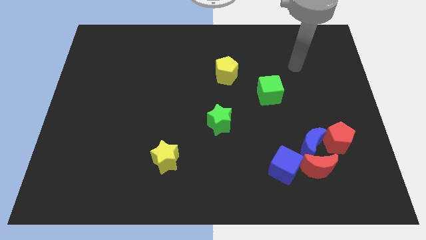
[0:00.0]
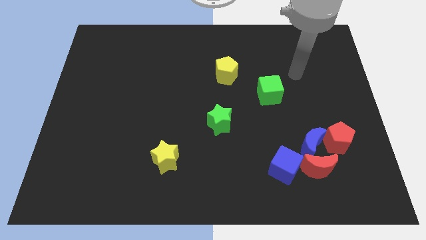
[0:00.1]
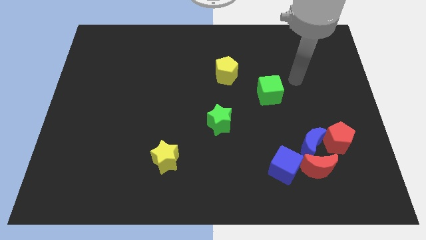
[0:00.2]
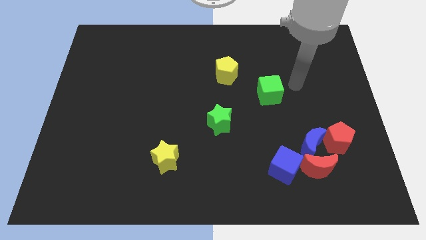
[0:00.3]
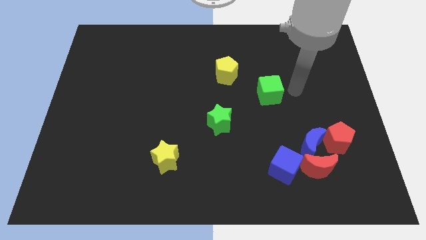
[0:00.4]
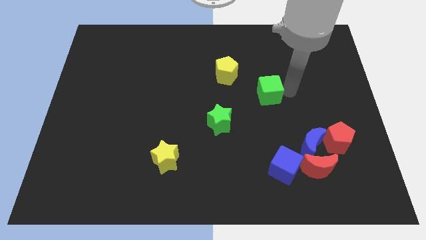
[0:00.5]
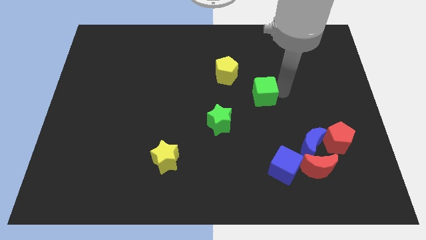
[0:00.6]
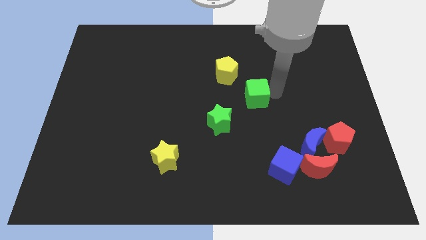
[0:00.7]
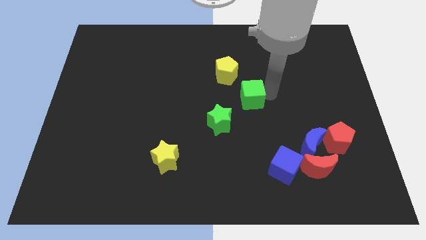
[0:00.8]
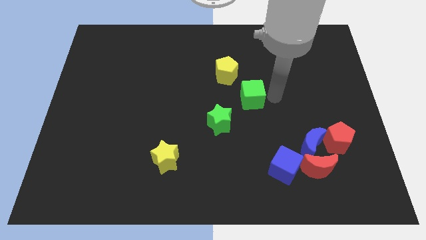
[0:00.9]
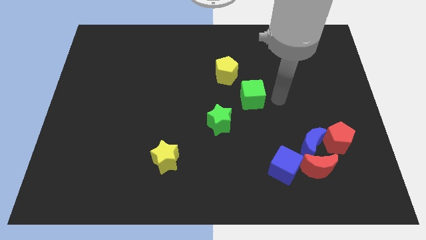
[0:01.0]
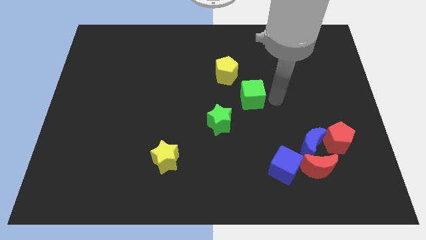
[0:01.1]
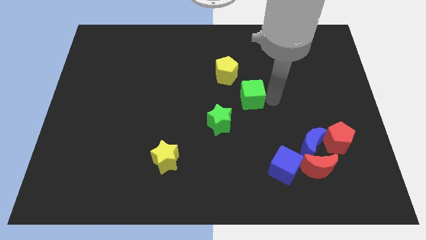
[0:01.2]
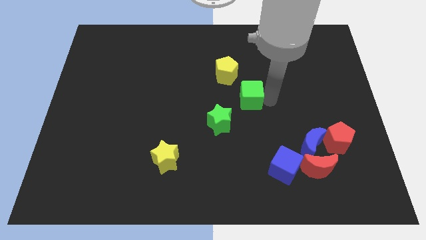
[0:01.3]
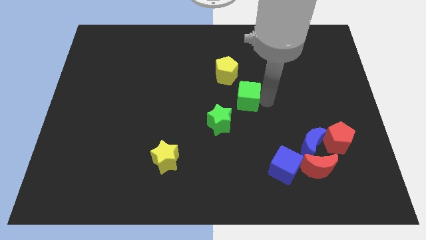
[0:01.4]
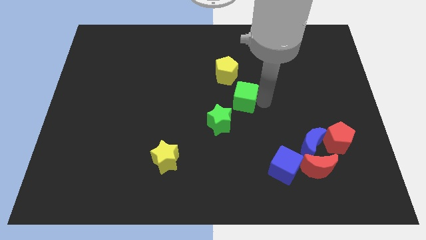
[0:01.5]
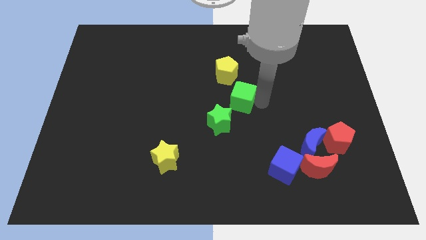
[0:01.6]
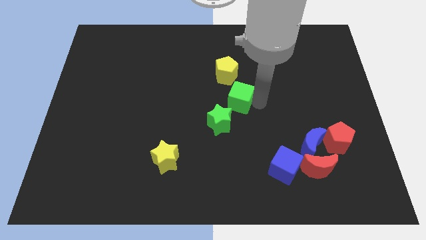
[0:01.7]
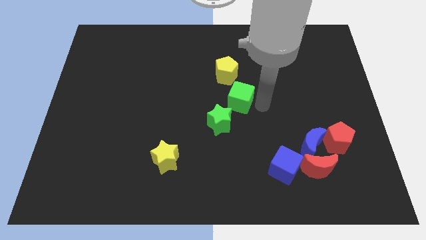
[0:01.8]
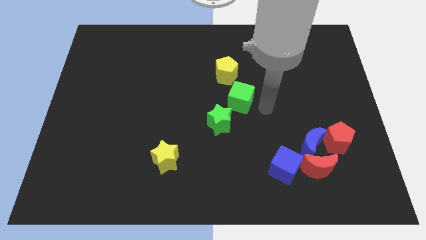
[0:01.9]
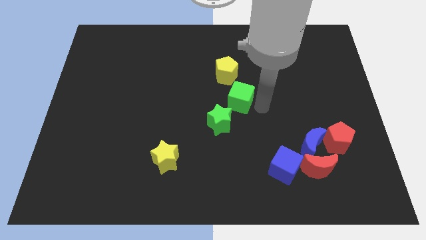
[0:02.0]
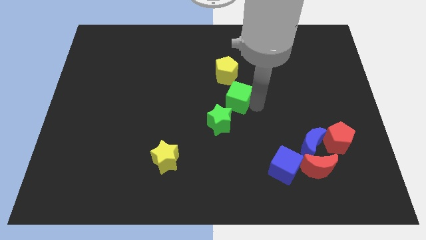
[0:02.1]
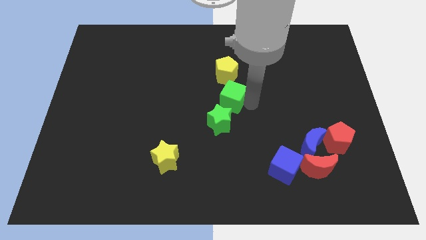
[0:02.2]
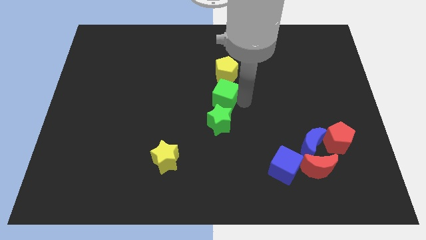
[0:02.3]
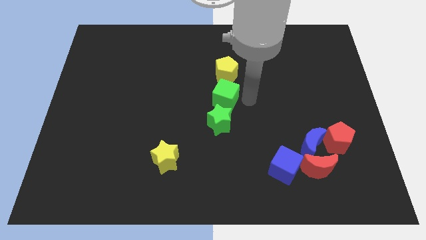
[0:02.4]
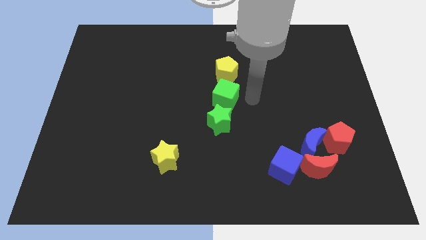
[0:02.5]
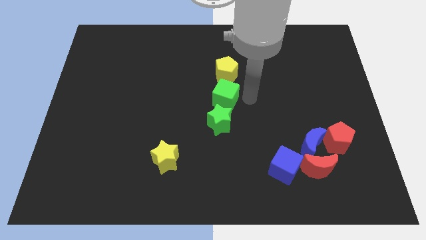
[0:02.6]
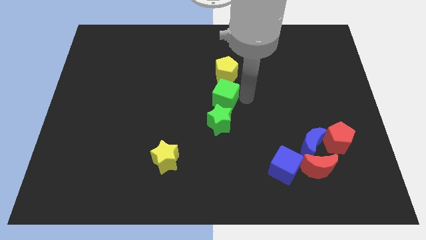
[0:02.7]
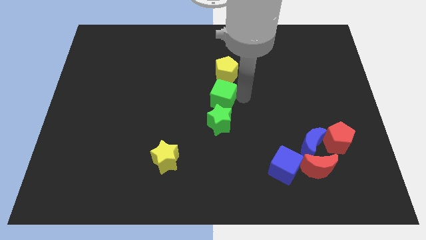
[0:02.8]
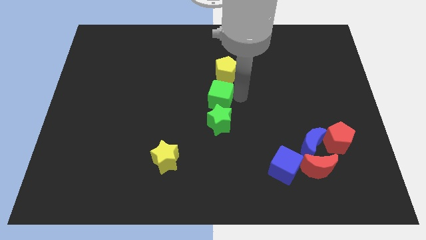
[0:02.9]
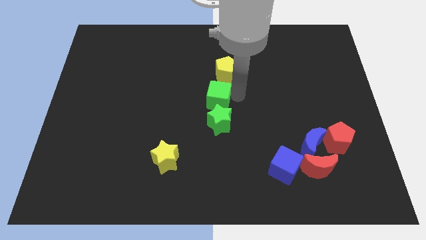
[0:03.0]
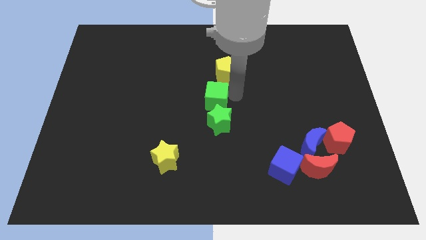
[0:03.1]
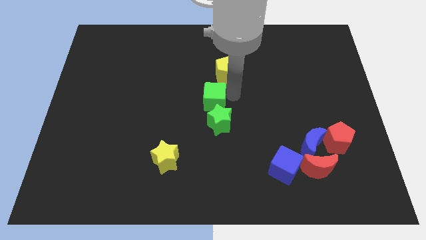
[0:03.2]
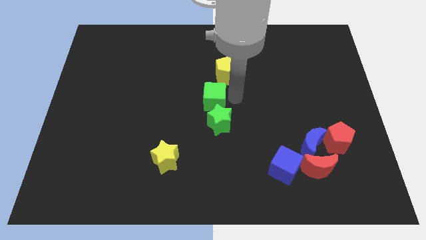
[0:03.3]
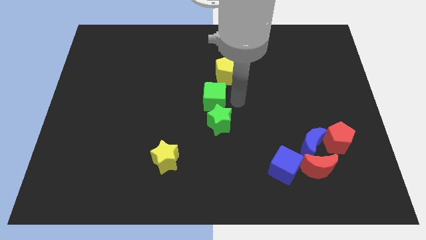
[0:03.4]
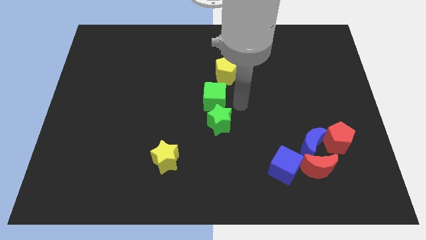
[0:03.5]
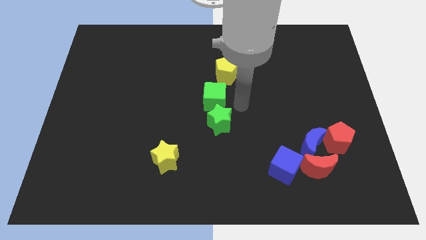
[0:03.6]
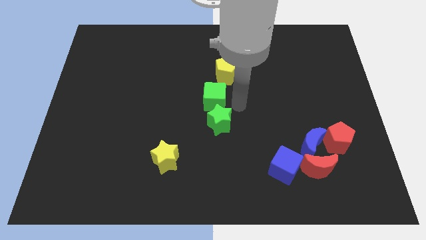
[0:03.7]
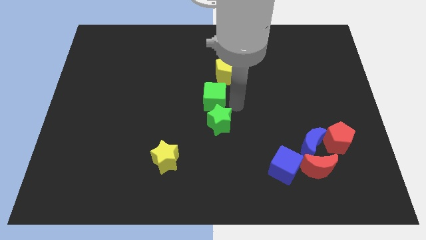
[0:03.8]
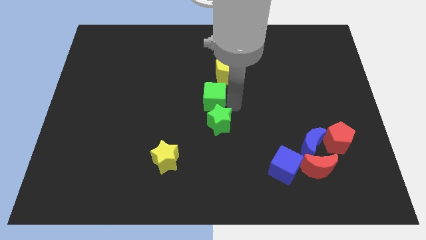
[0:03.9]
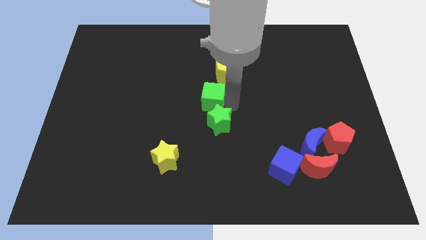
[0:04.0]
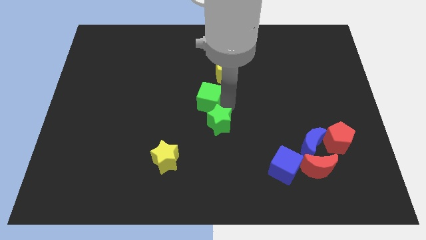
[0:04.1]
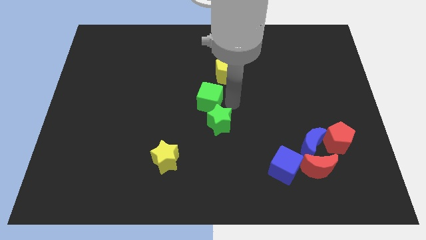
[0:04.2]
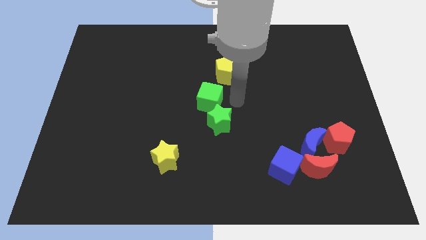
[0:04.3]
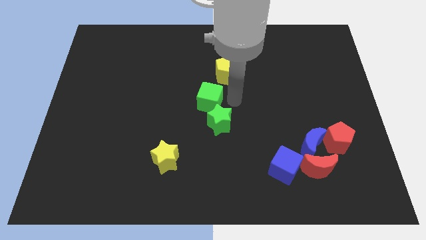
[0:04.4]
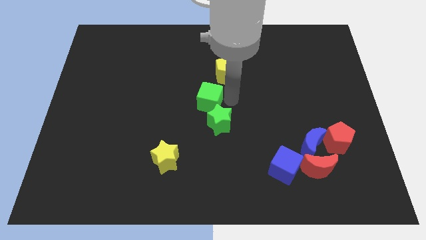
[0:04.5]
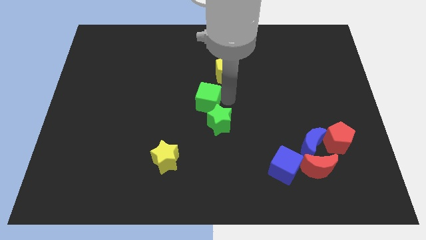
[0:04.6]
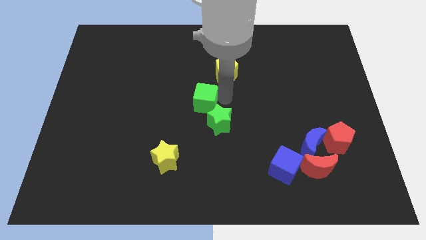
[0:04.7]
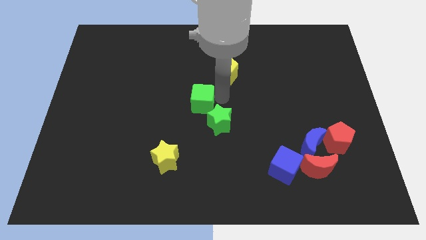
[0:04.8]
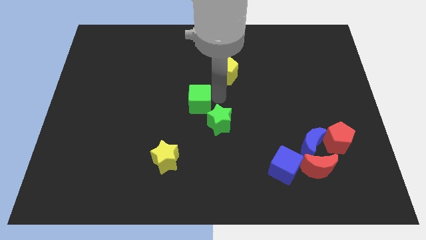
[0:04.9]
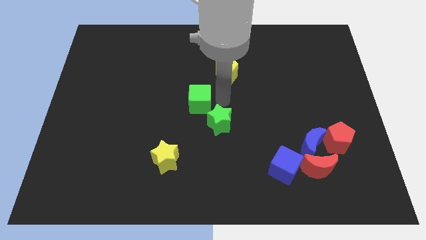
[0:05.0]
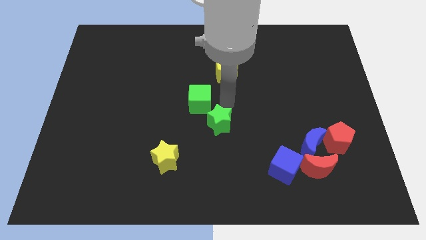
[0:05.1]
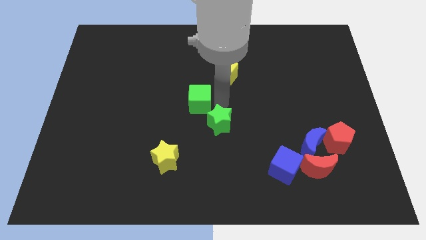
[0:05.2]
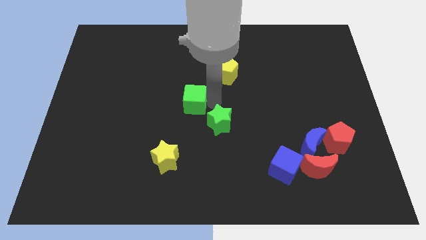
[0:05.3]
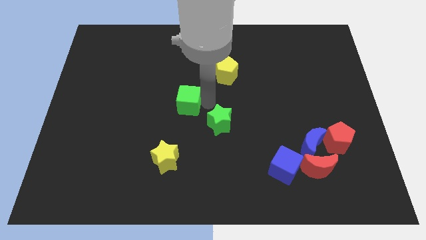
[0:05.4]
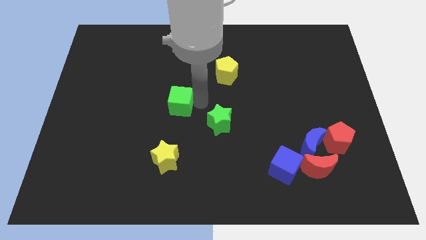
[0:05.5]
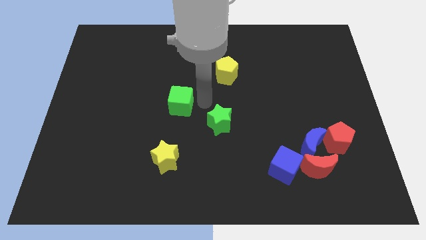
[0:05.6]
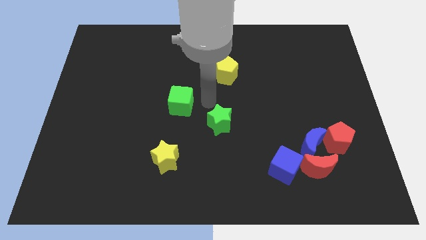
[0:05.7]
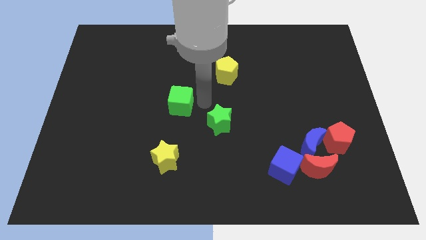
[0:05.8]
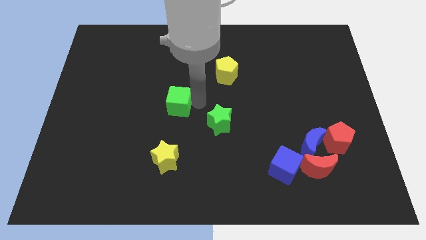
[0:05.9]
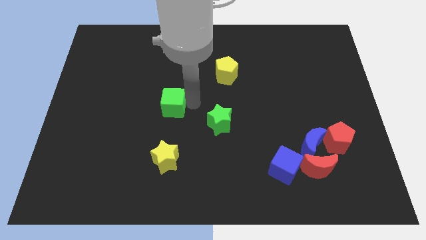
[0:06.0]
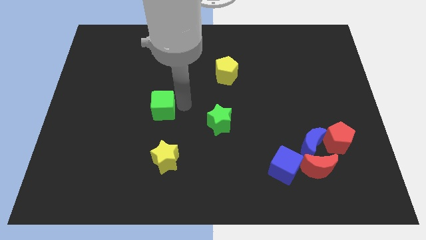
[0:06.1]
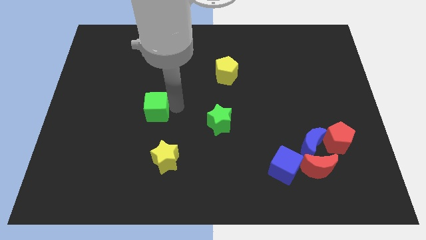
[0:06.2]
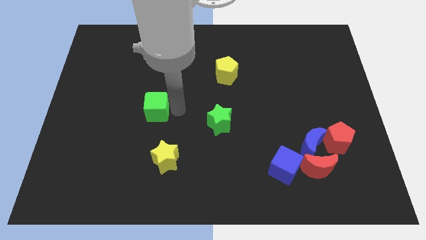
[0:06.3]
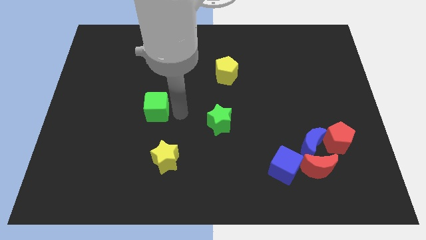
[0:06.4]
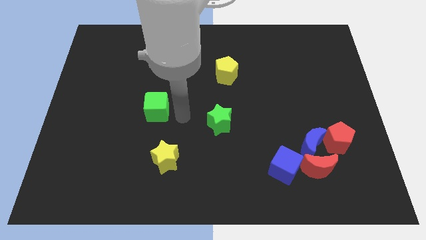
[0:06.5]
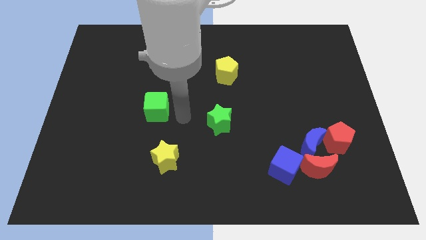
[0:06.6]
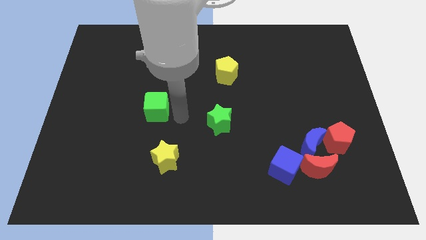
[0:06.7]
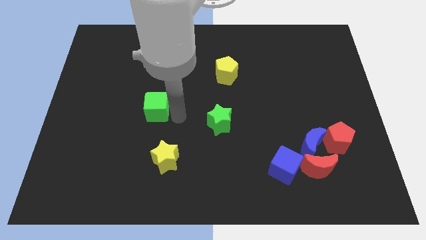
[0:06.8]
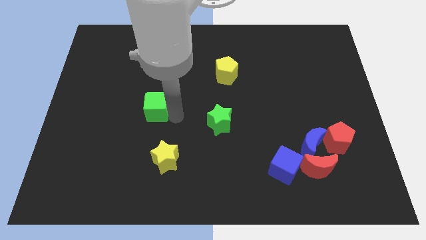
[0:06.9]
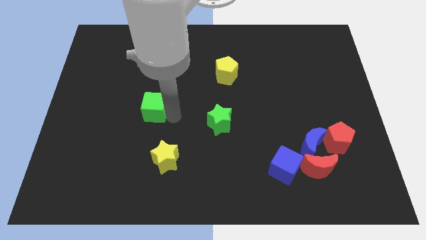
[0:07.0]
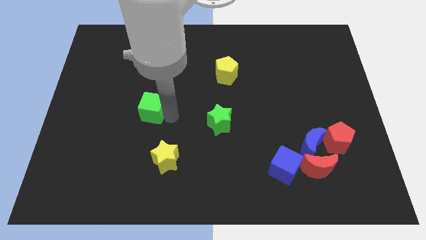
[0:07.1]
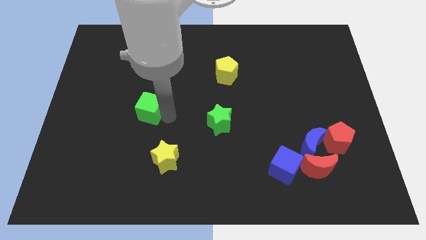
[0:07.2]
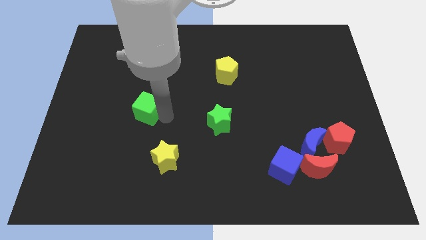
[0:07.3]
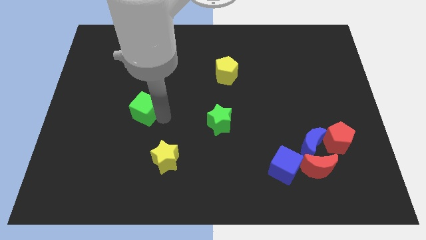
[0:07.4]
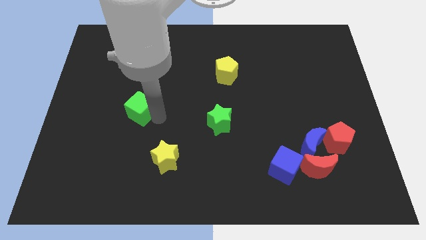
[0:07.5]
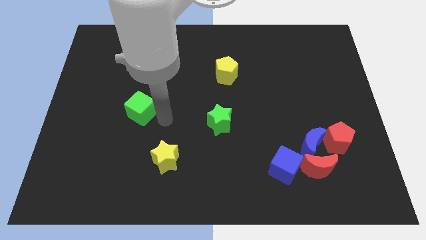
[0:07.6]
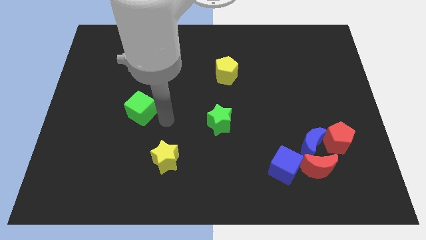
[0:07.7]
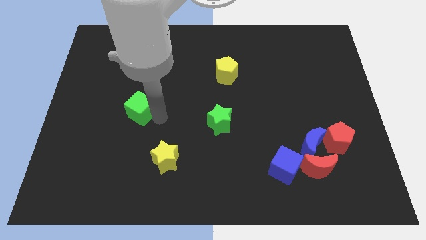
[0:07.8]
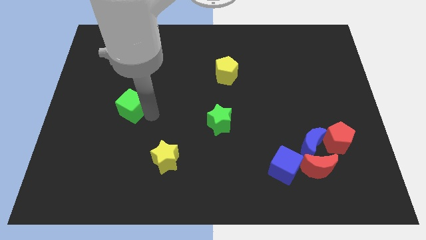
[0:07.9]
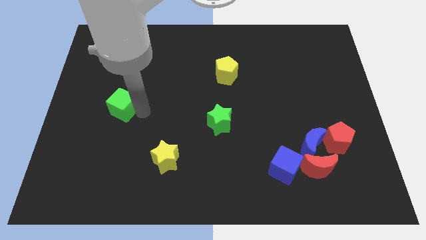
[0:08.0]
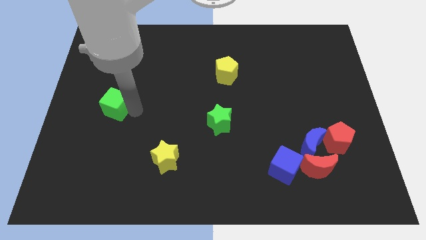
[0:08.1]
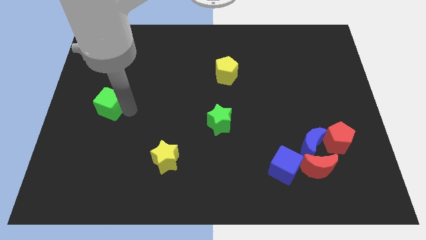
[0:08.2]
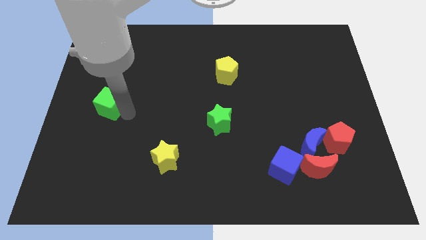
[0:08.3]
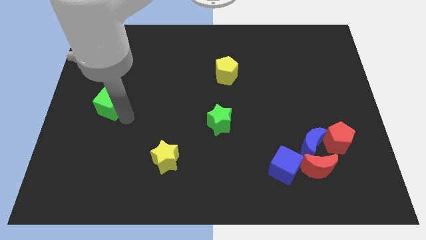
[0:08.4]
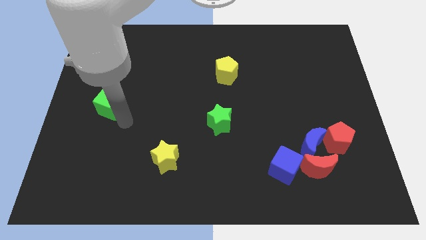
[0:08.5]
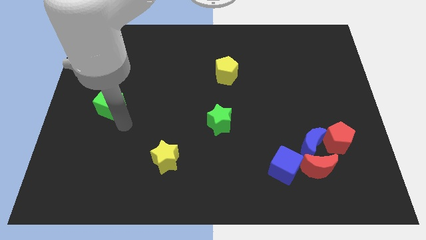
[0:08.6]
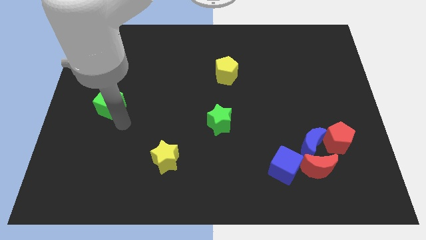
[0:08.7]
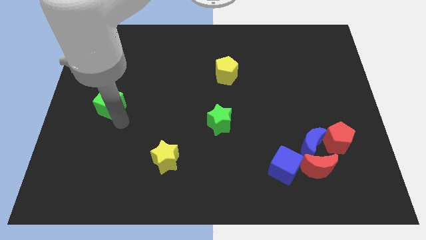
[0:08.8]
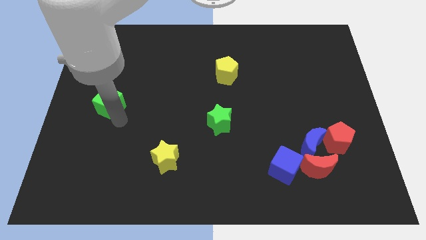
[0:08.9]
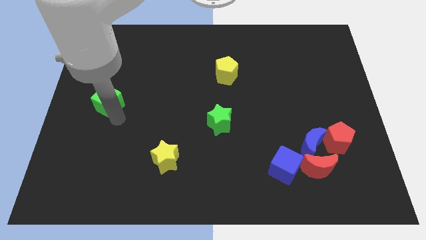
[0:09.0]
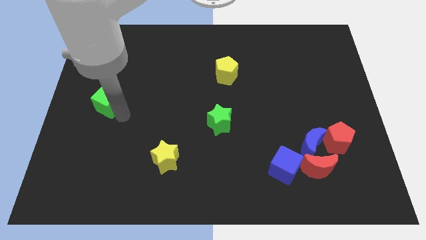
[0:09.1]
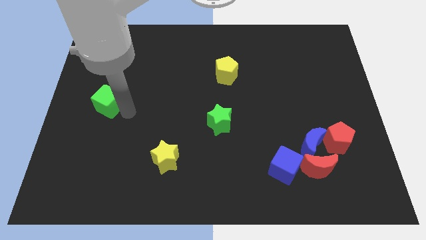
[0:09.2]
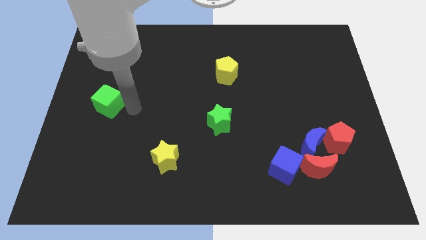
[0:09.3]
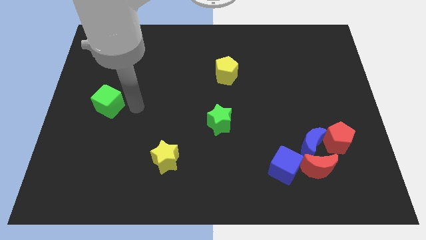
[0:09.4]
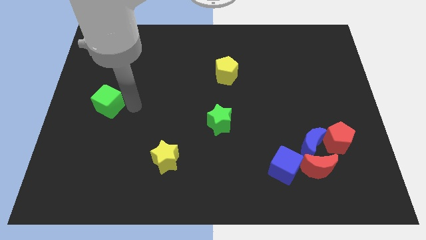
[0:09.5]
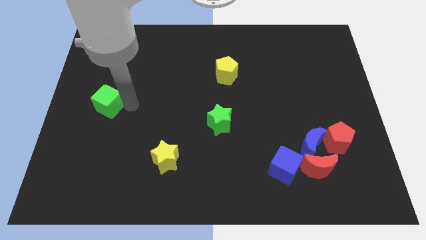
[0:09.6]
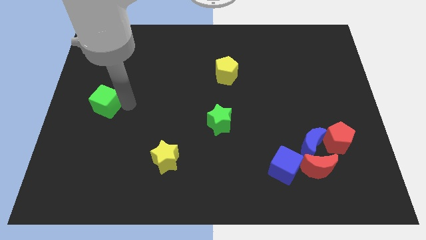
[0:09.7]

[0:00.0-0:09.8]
push the green cube to the center left
